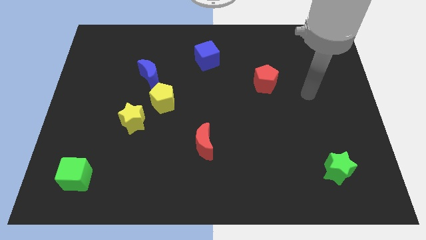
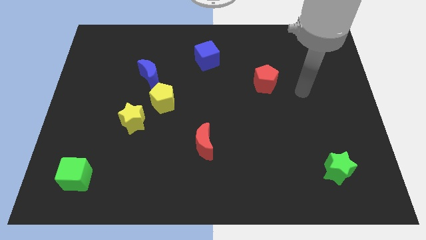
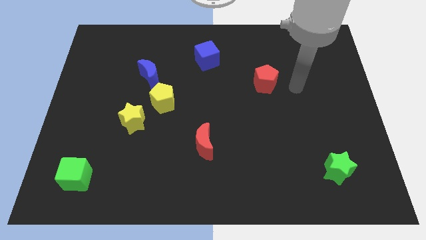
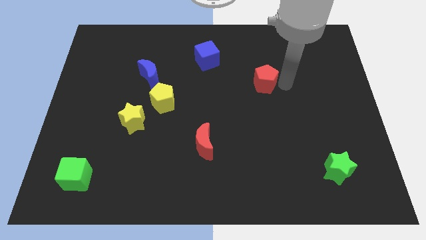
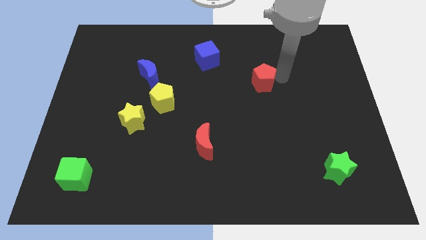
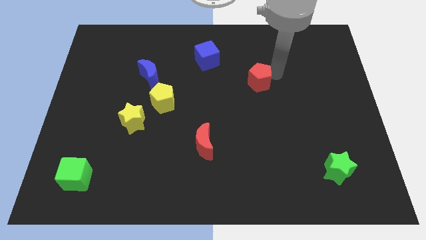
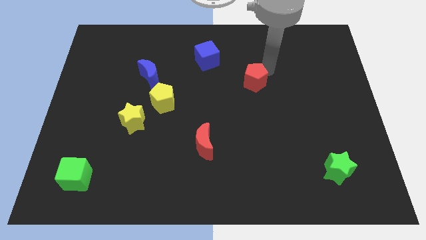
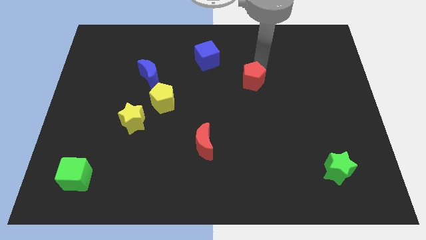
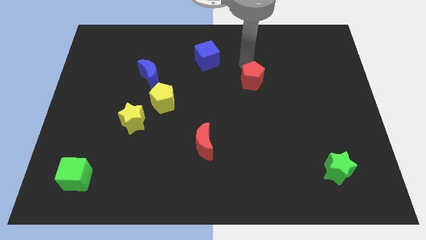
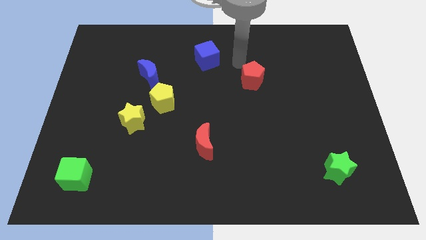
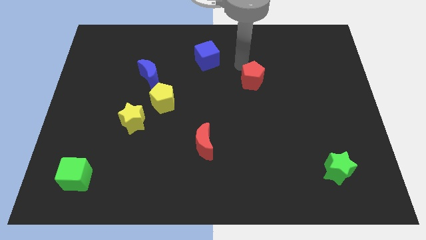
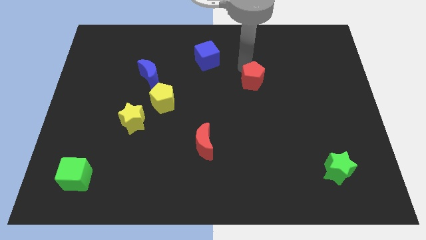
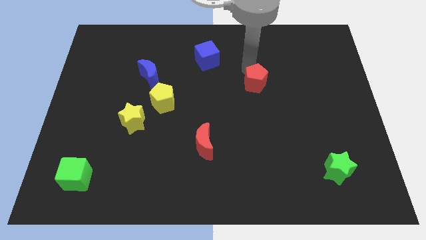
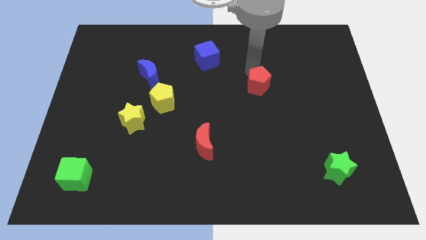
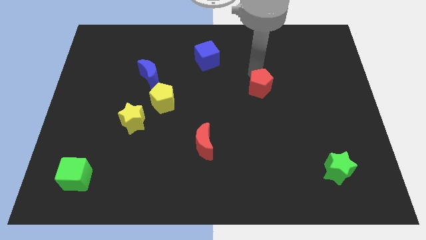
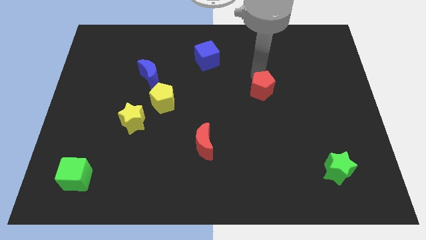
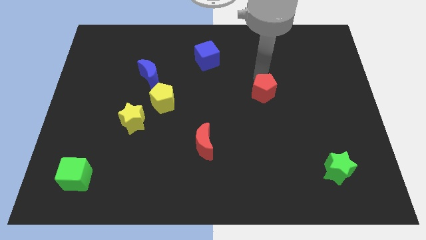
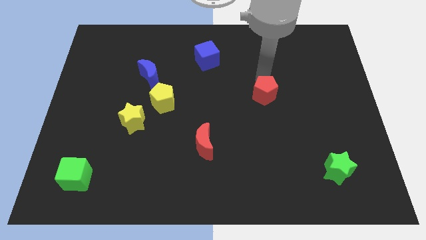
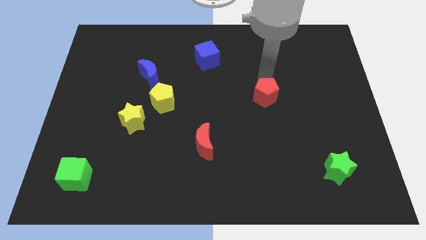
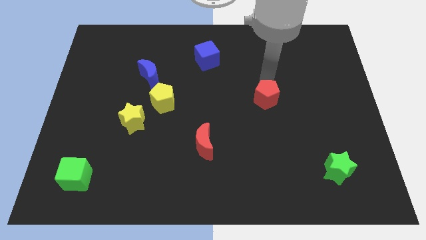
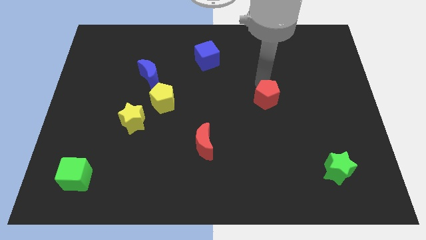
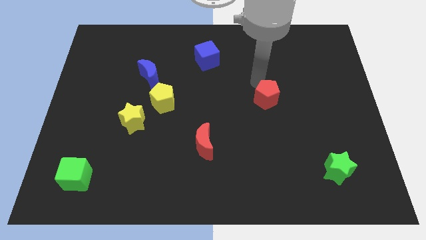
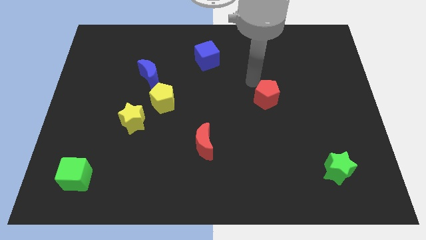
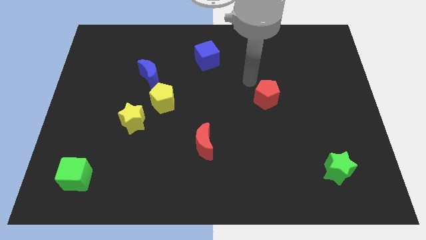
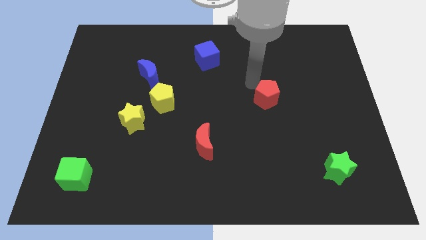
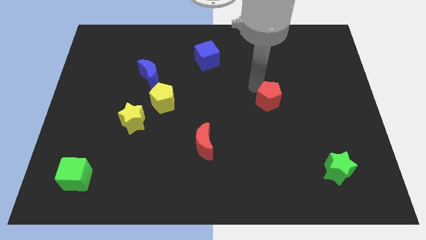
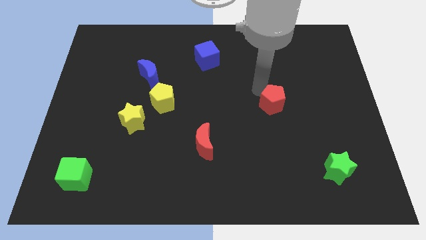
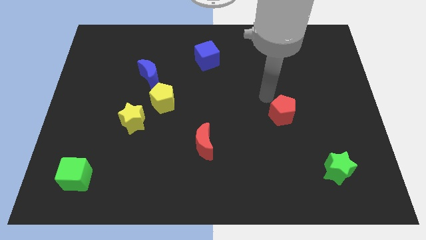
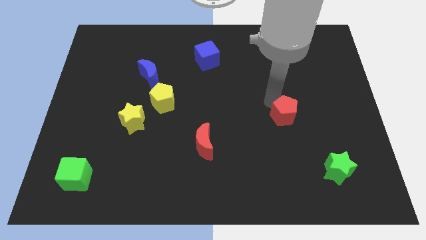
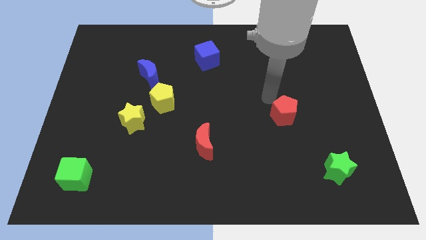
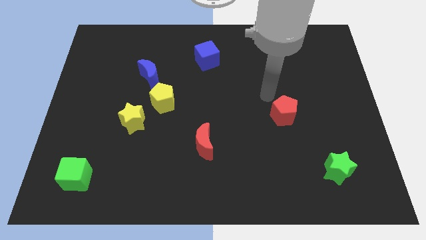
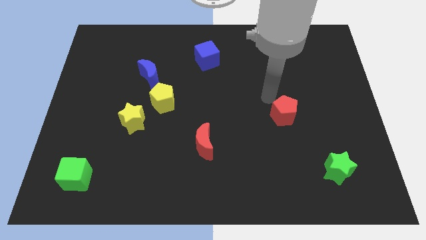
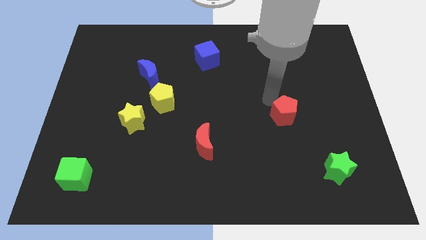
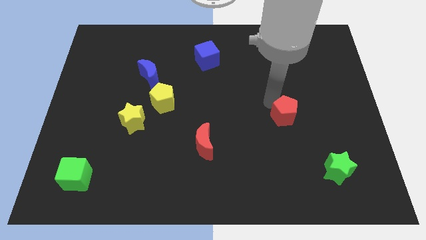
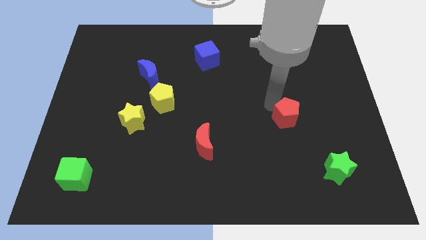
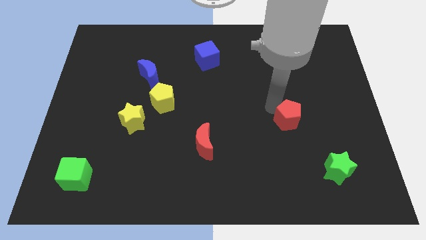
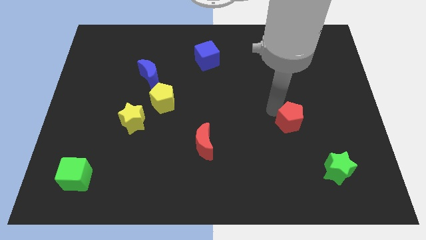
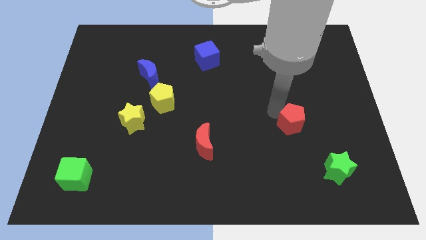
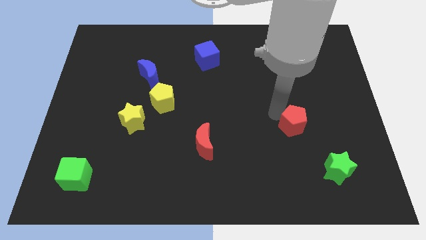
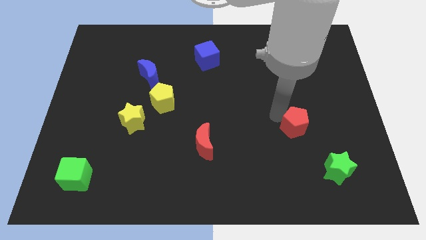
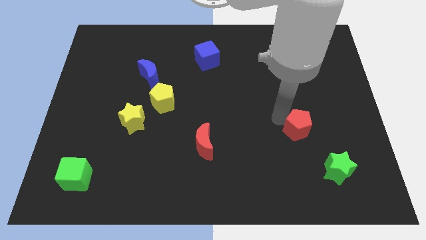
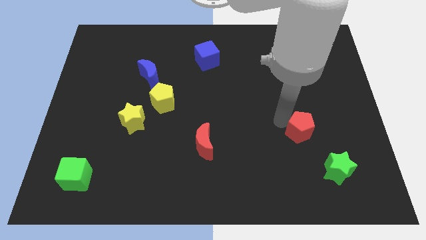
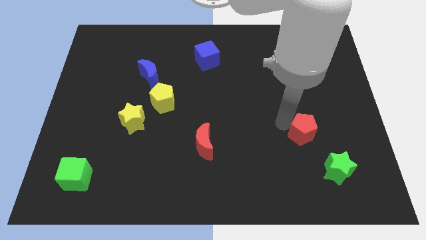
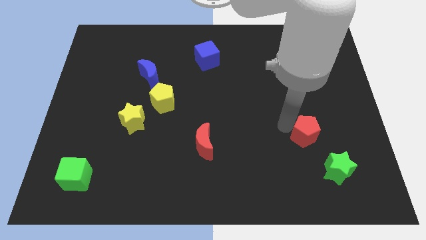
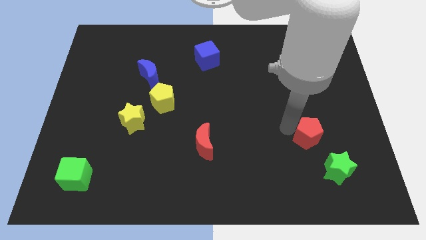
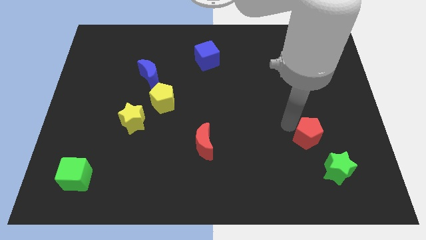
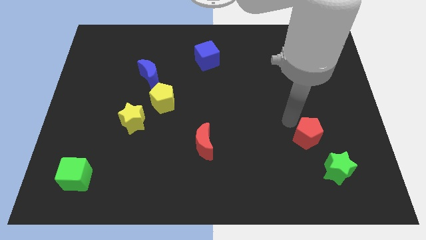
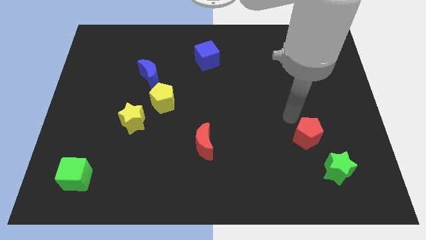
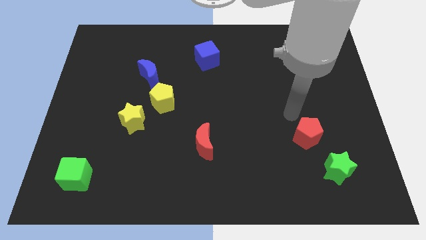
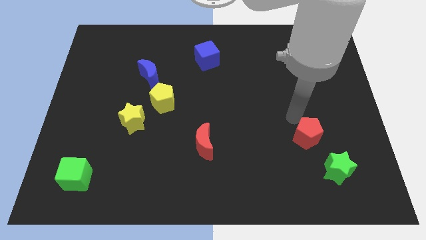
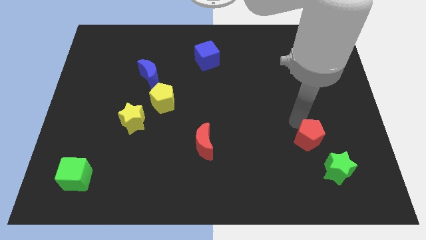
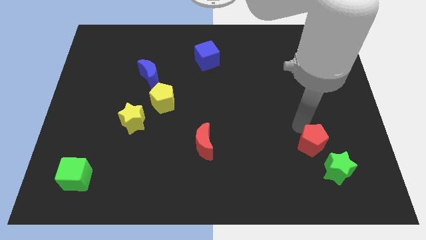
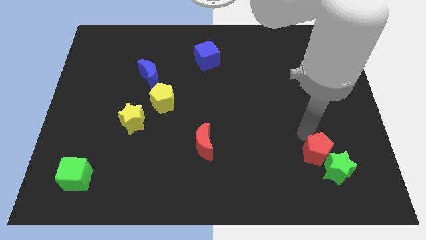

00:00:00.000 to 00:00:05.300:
move the red pentagon to the green star

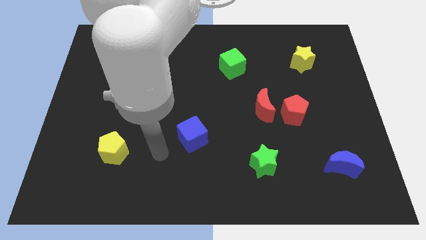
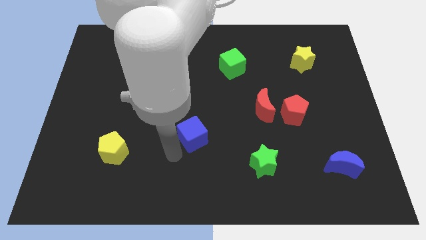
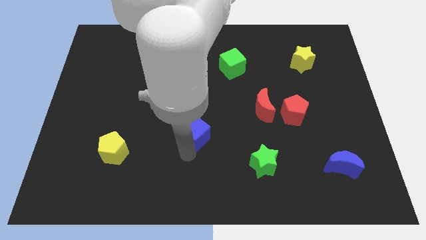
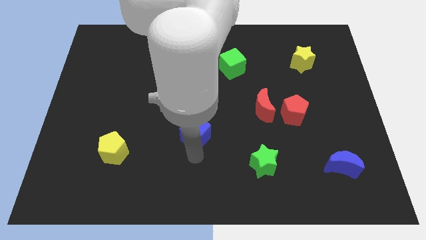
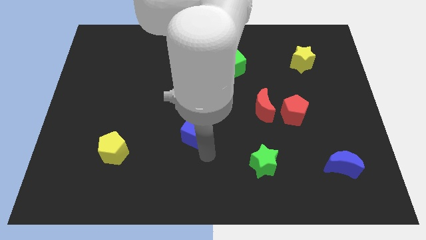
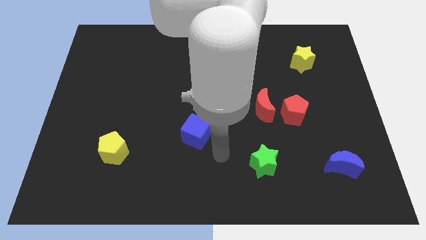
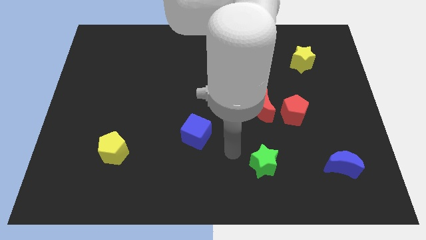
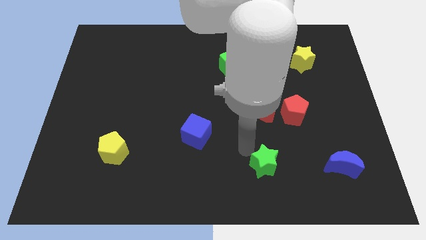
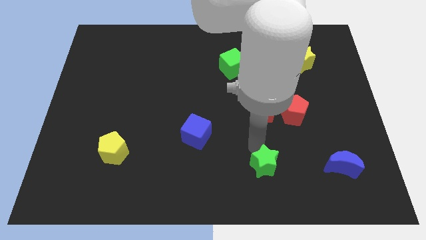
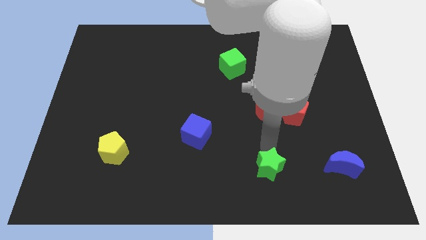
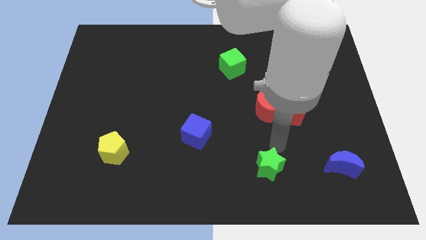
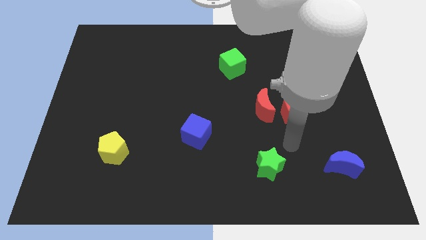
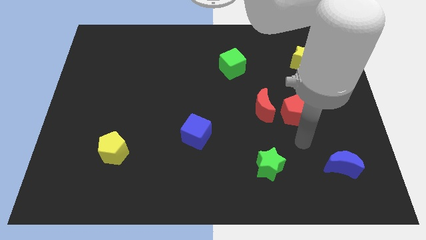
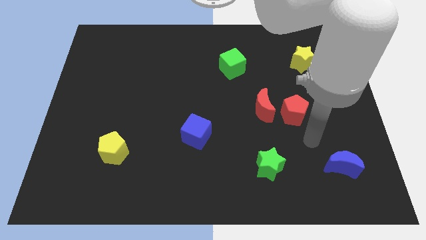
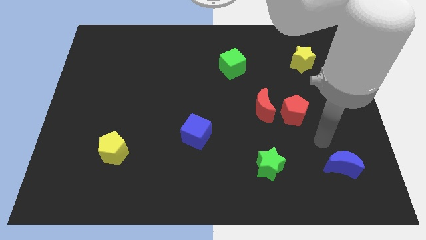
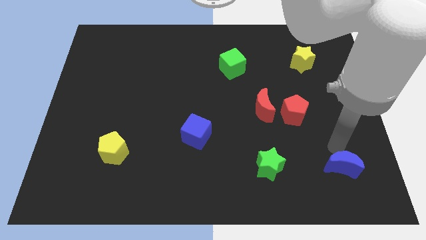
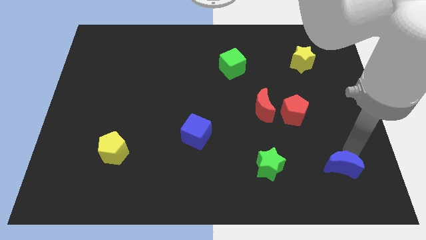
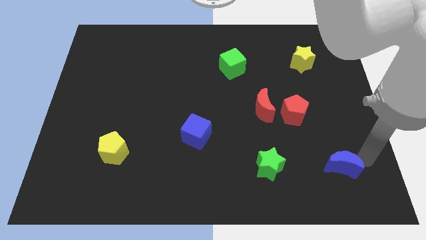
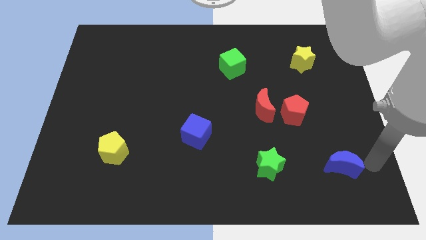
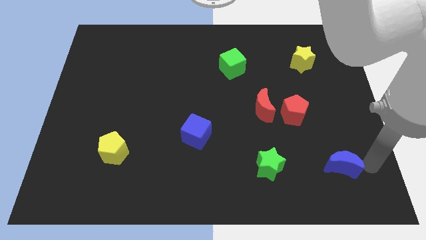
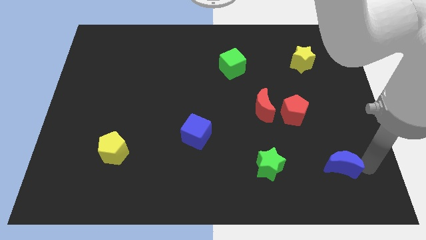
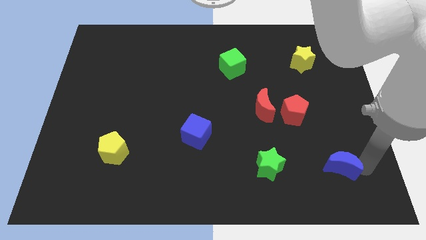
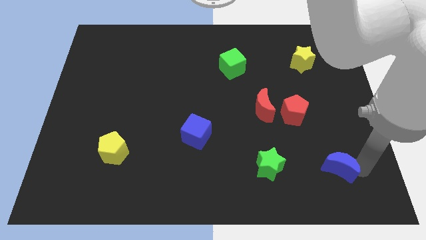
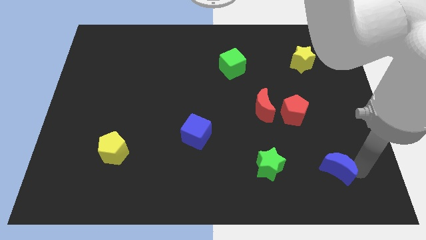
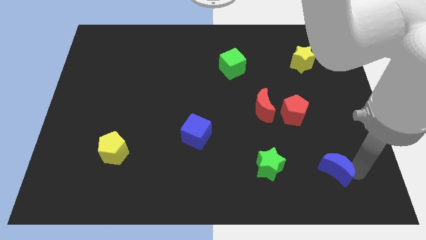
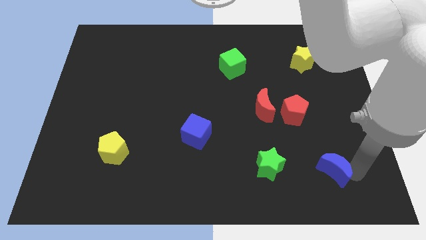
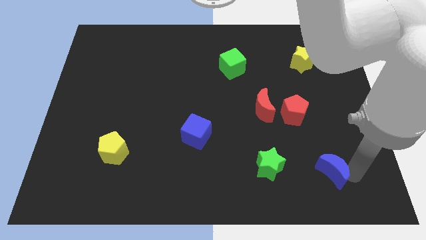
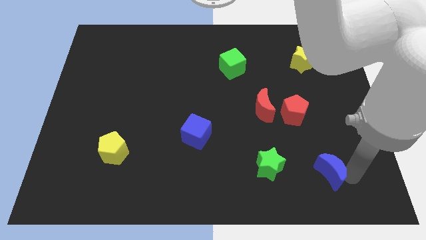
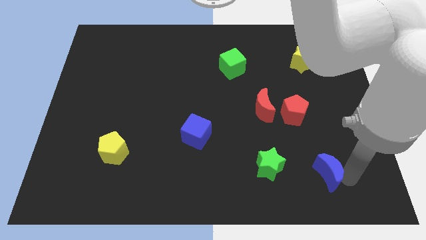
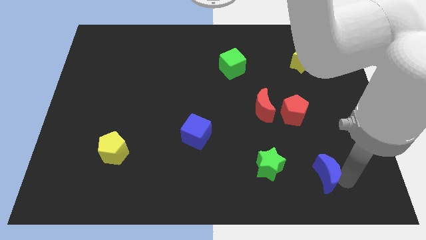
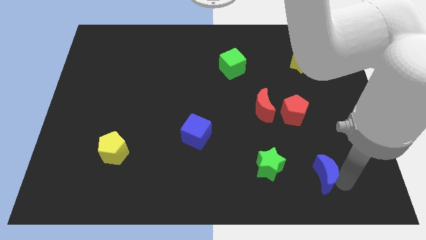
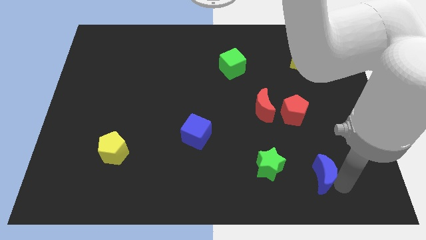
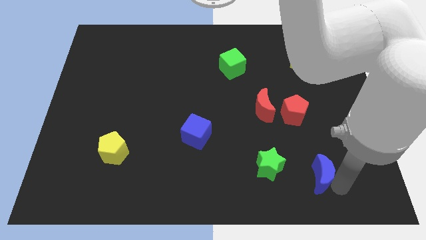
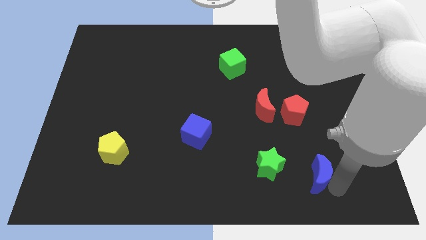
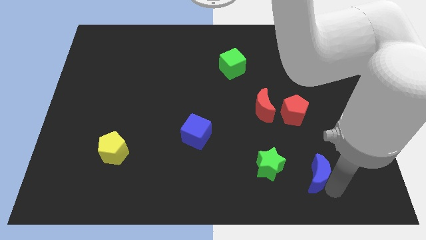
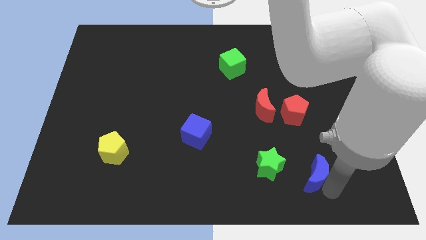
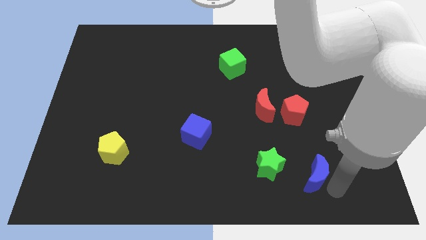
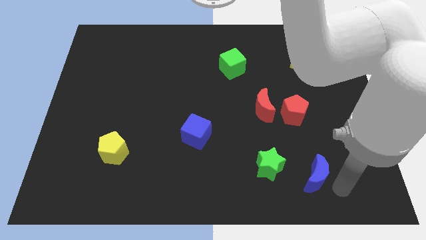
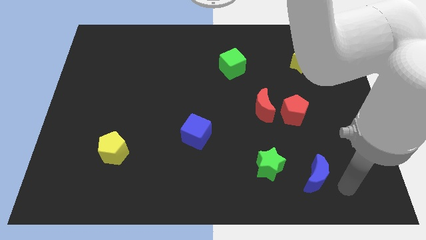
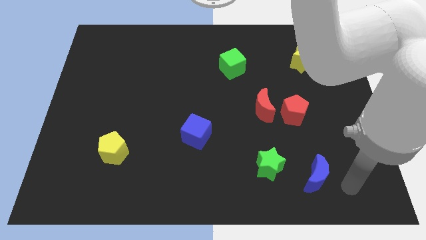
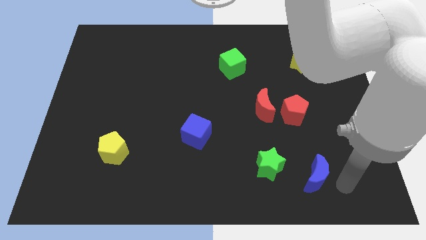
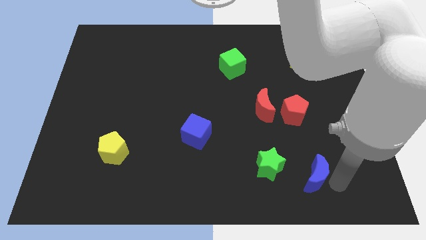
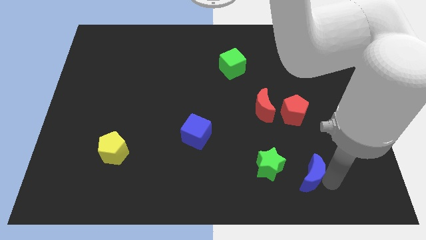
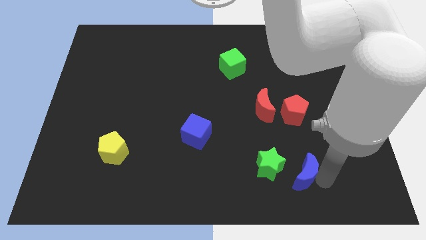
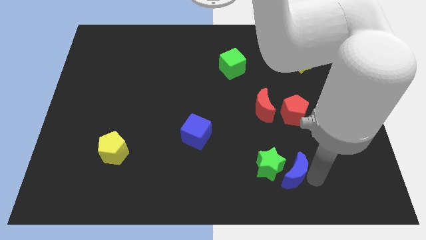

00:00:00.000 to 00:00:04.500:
put the blue moon towards the green star
